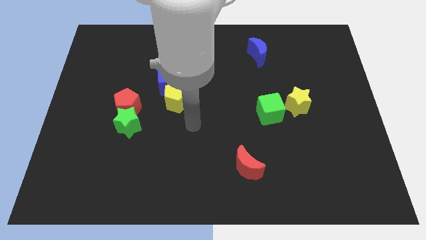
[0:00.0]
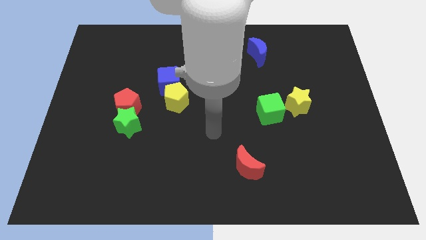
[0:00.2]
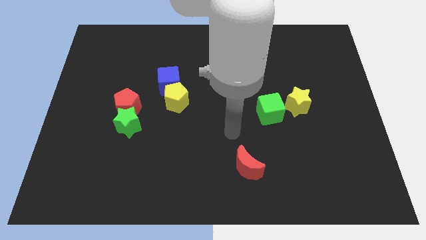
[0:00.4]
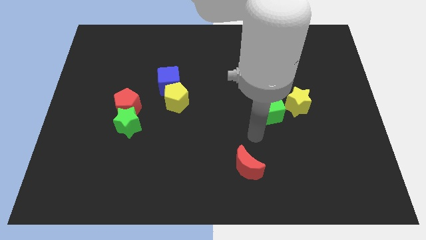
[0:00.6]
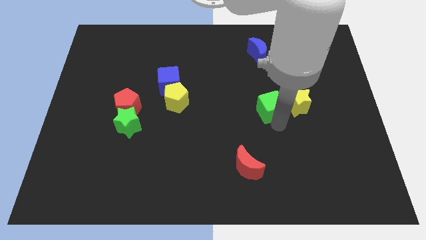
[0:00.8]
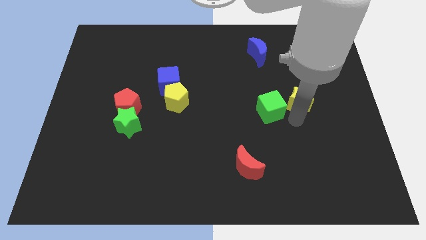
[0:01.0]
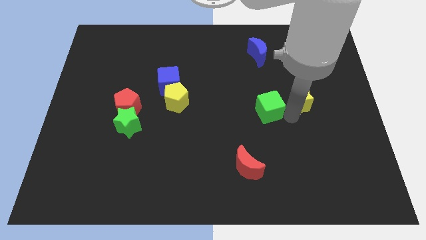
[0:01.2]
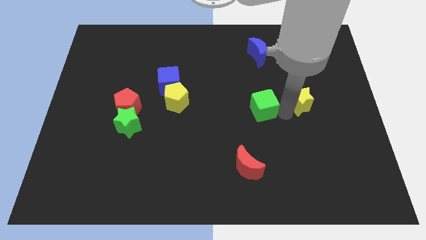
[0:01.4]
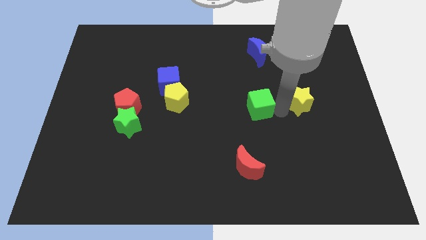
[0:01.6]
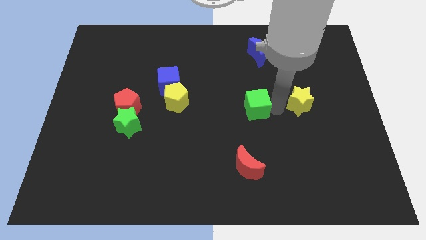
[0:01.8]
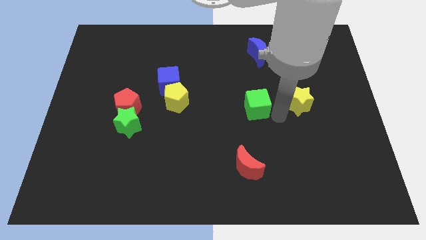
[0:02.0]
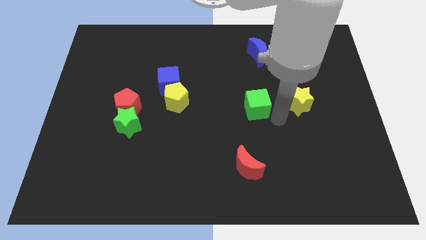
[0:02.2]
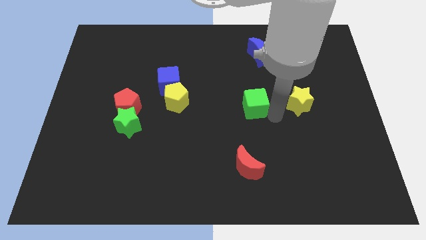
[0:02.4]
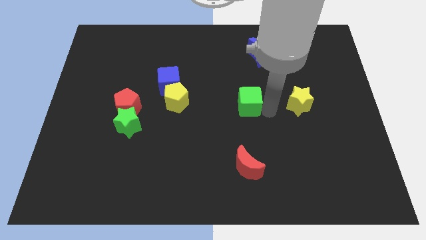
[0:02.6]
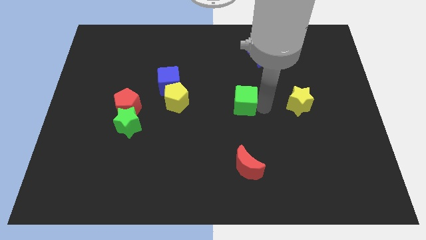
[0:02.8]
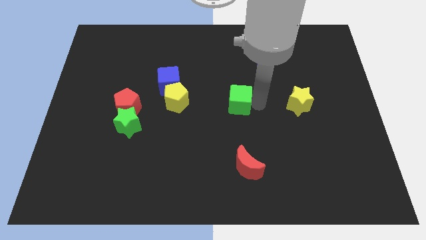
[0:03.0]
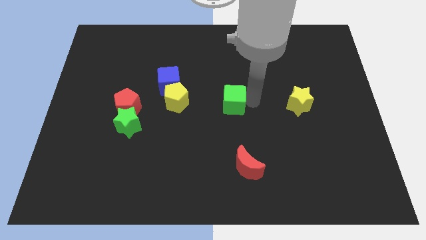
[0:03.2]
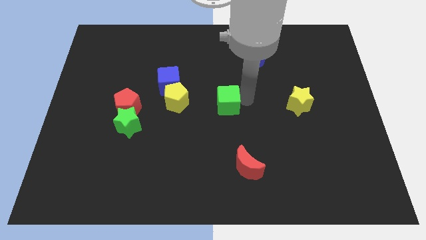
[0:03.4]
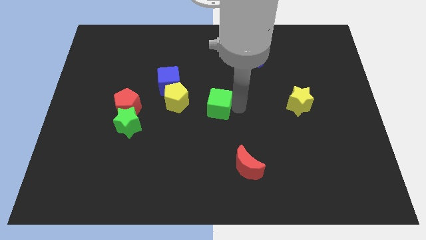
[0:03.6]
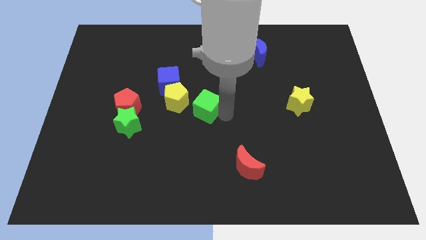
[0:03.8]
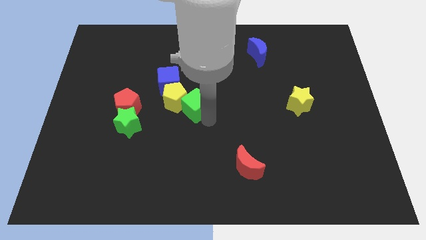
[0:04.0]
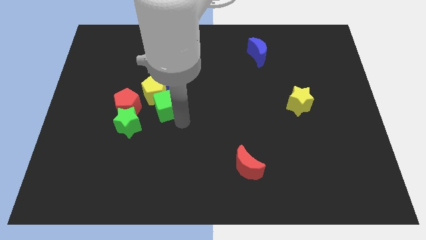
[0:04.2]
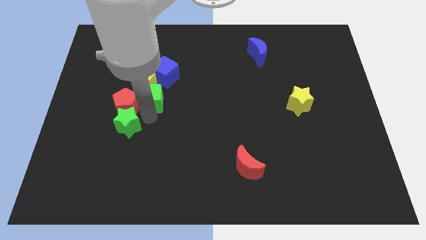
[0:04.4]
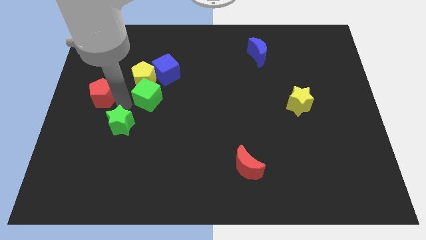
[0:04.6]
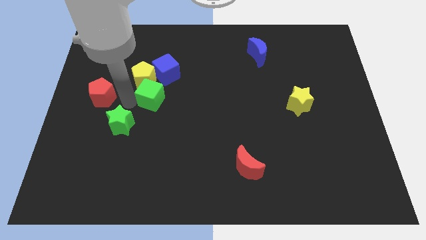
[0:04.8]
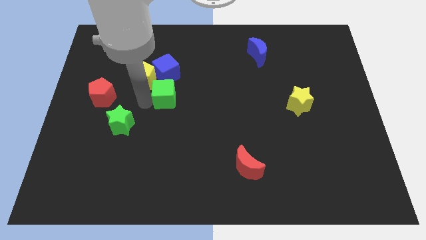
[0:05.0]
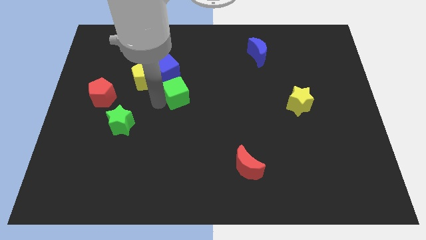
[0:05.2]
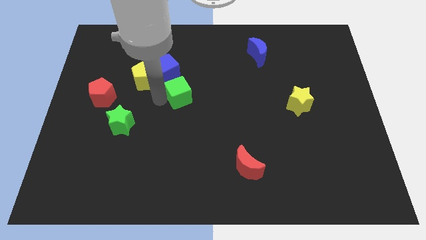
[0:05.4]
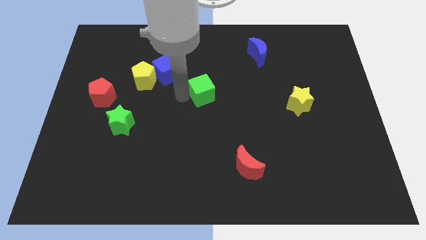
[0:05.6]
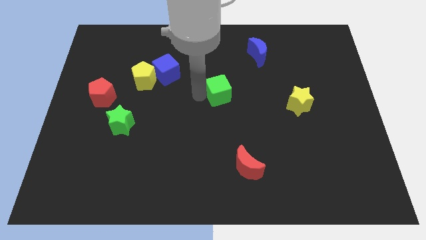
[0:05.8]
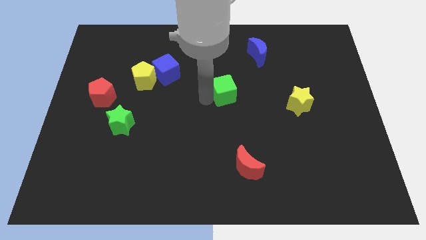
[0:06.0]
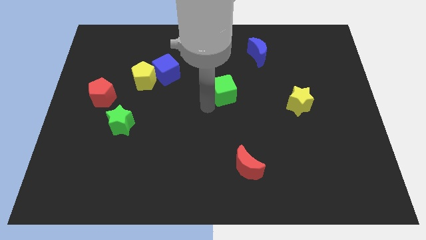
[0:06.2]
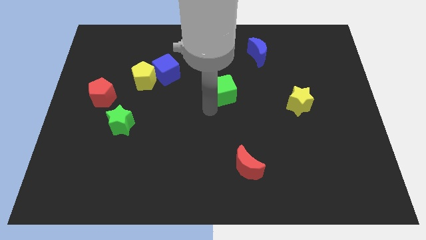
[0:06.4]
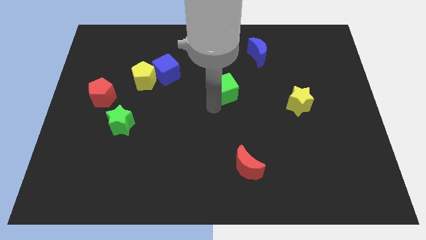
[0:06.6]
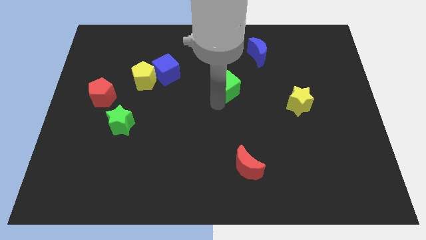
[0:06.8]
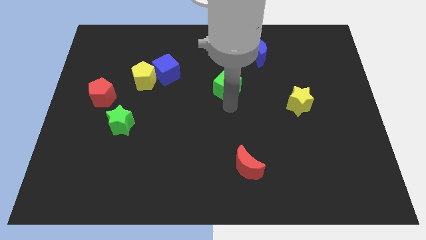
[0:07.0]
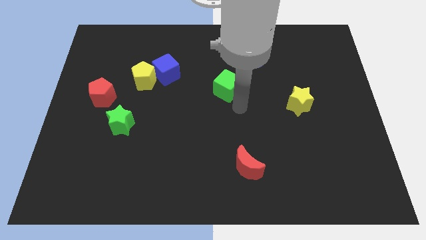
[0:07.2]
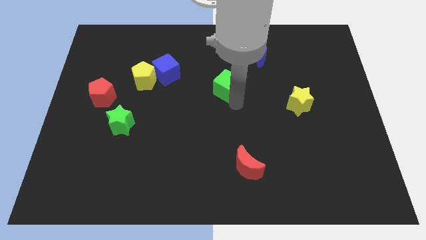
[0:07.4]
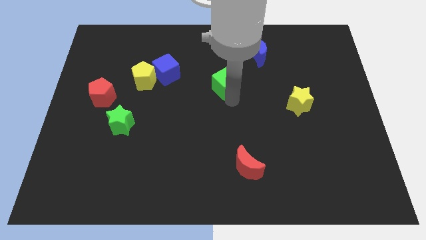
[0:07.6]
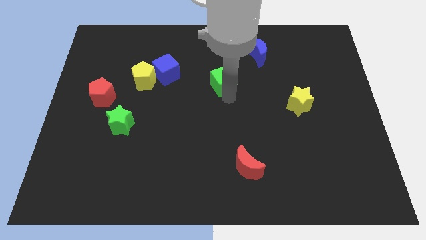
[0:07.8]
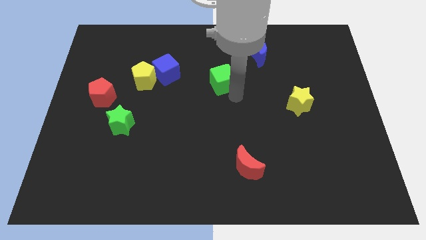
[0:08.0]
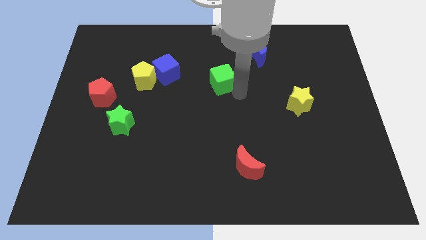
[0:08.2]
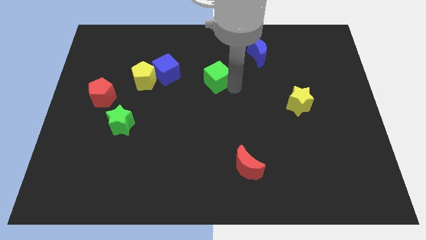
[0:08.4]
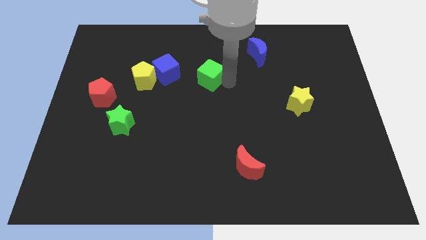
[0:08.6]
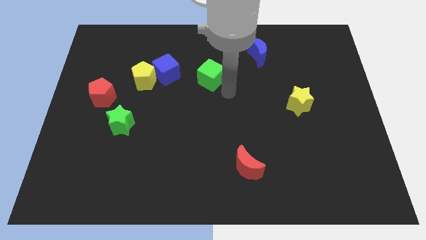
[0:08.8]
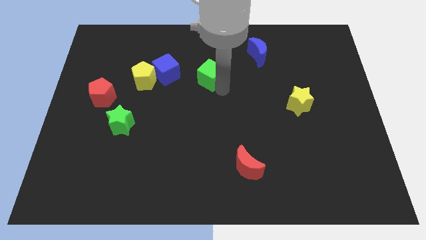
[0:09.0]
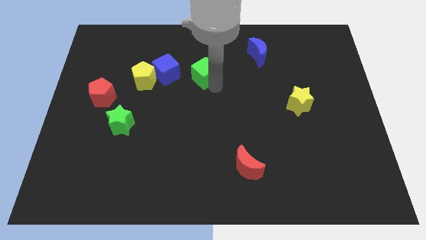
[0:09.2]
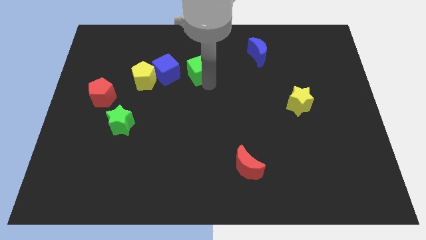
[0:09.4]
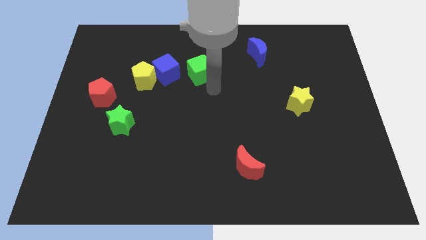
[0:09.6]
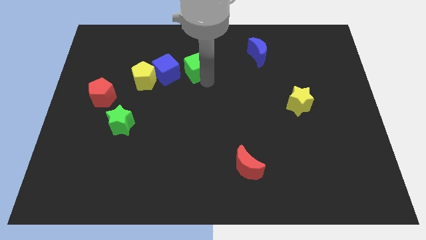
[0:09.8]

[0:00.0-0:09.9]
put the green cube to the top right of the blue cube

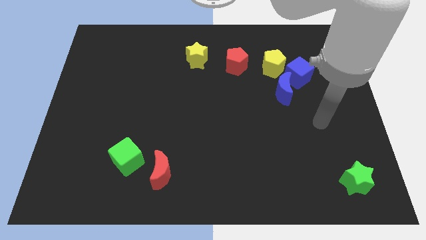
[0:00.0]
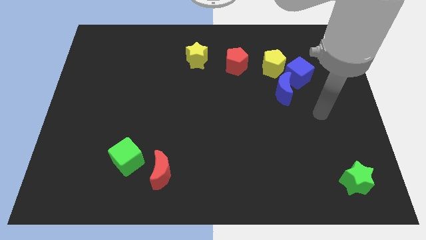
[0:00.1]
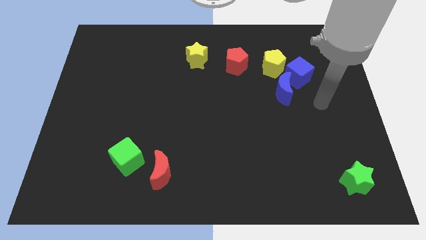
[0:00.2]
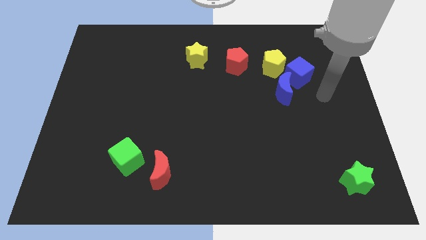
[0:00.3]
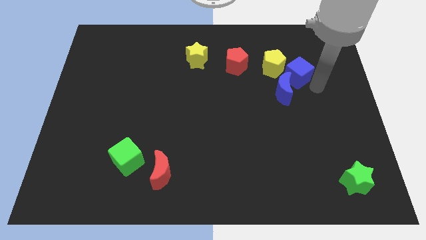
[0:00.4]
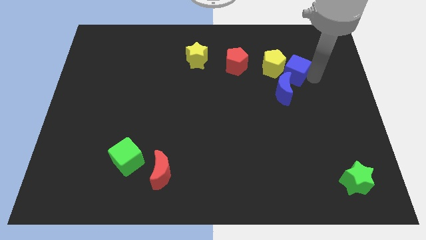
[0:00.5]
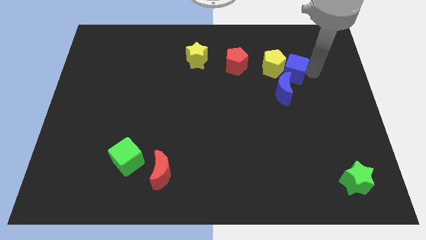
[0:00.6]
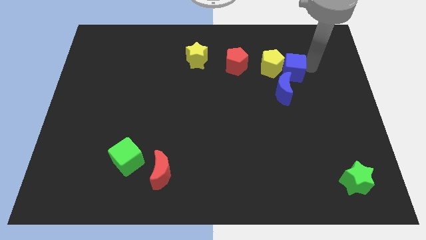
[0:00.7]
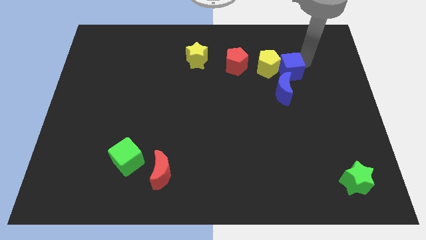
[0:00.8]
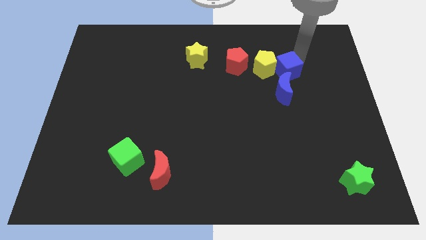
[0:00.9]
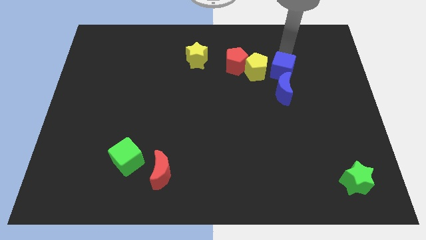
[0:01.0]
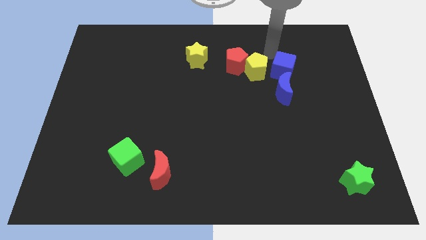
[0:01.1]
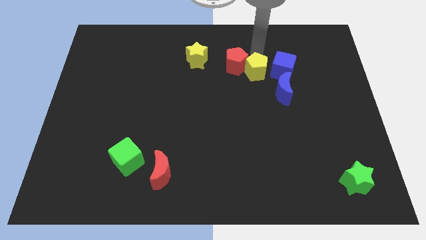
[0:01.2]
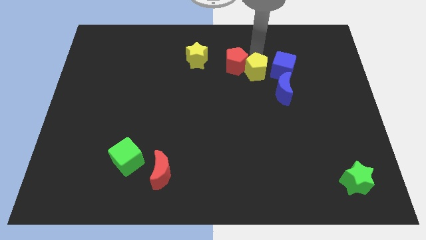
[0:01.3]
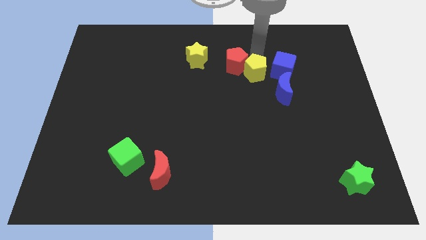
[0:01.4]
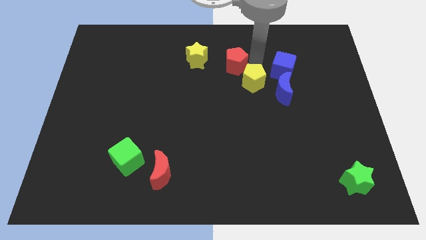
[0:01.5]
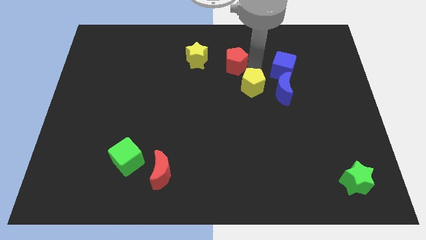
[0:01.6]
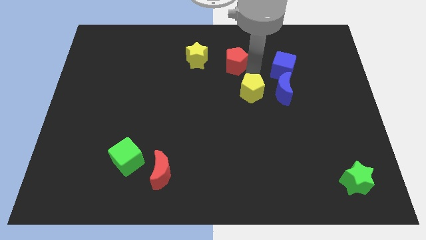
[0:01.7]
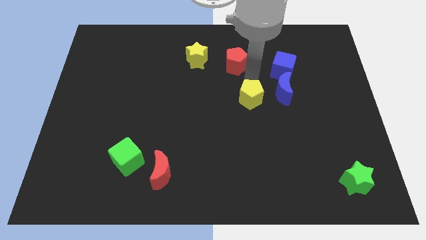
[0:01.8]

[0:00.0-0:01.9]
move the yellow pentagon to the bottom left of the blue moon
